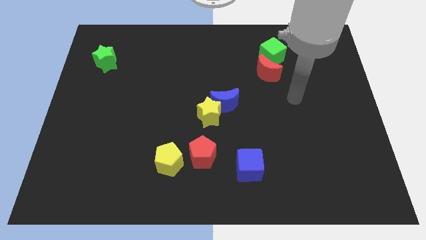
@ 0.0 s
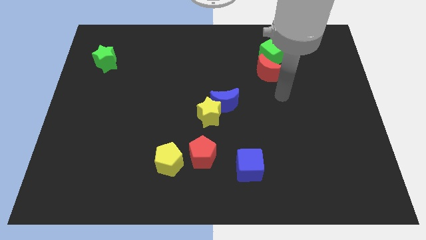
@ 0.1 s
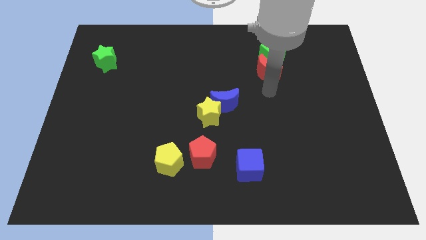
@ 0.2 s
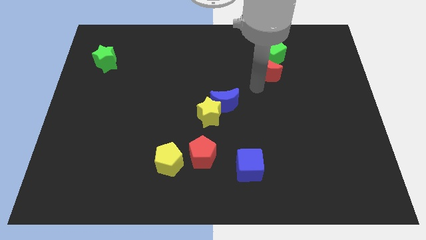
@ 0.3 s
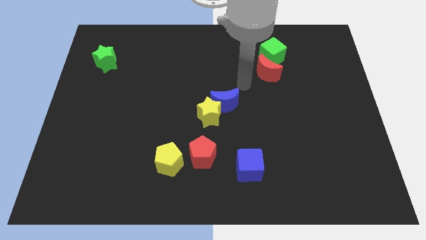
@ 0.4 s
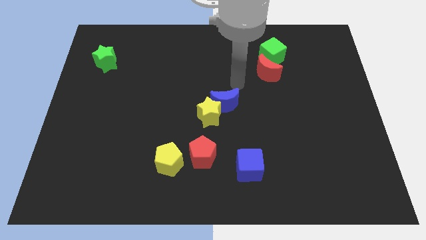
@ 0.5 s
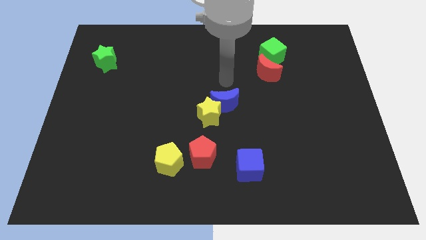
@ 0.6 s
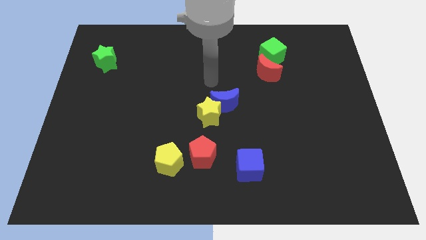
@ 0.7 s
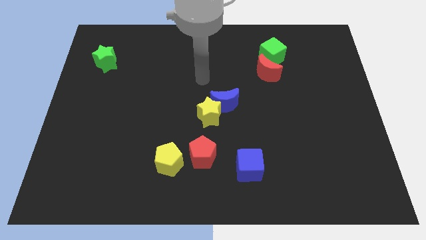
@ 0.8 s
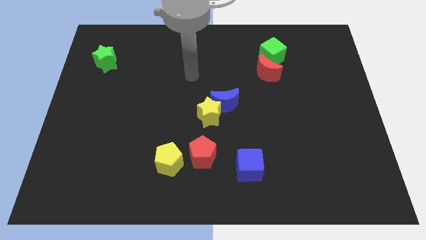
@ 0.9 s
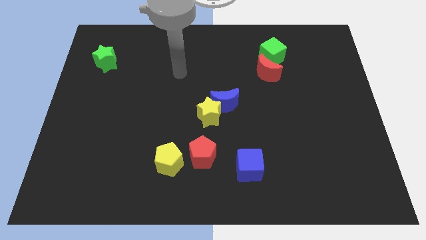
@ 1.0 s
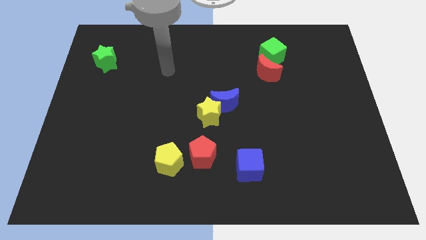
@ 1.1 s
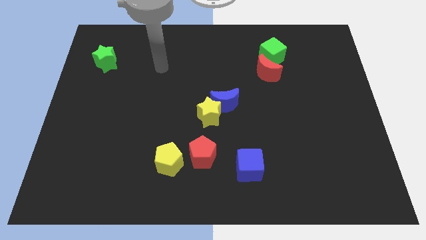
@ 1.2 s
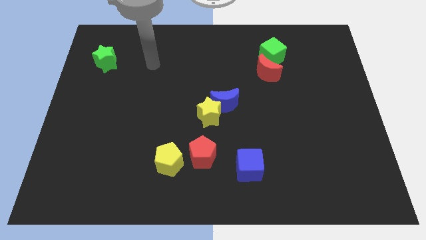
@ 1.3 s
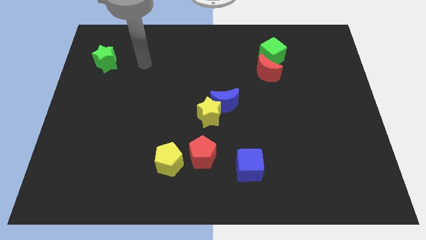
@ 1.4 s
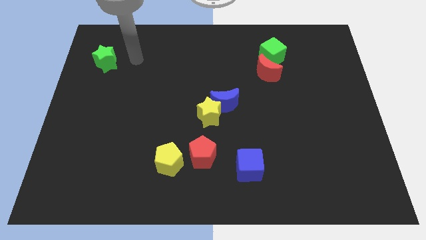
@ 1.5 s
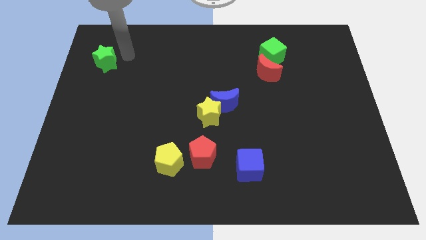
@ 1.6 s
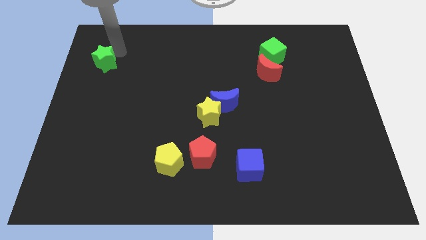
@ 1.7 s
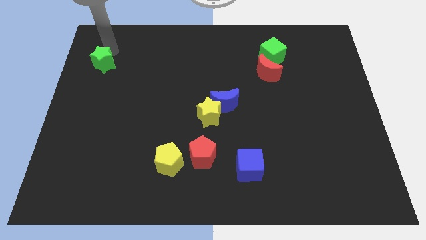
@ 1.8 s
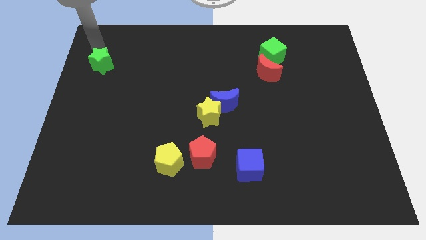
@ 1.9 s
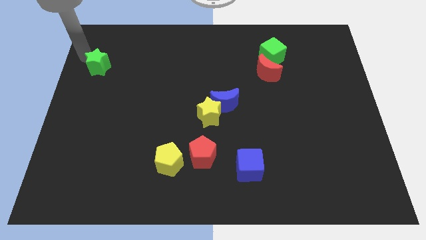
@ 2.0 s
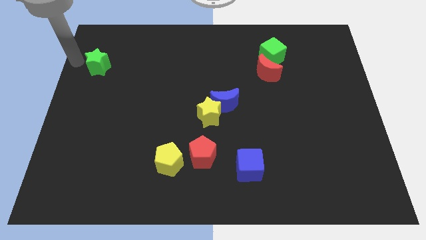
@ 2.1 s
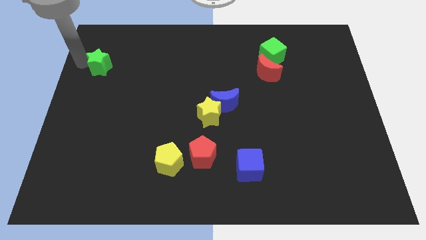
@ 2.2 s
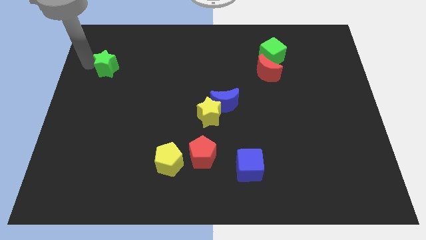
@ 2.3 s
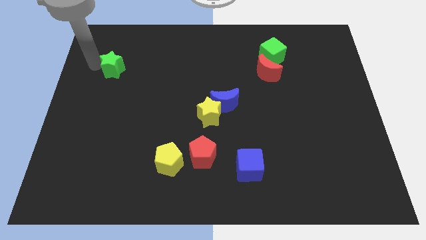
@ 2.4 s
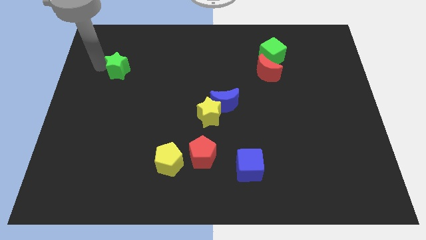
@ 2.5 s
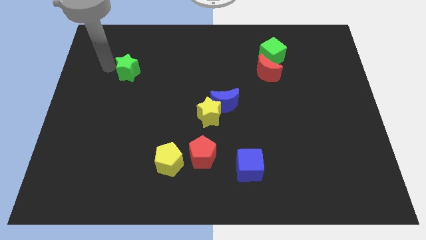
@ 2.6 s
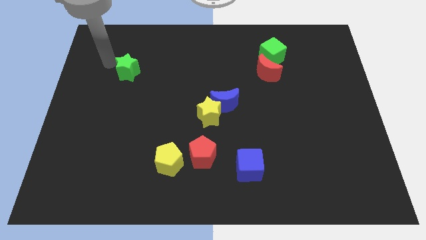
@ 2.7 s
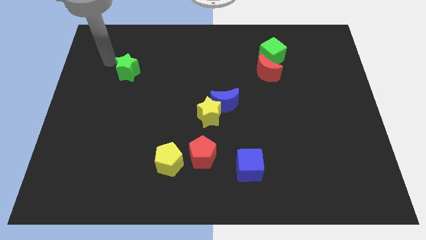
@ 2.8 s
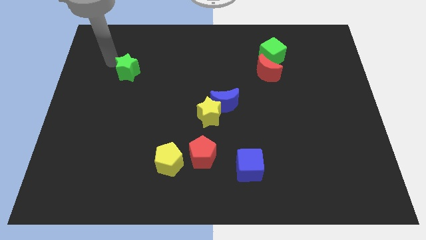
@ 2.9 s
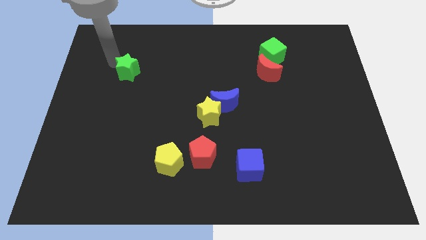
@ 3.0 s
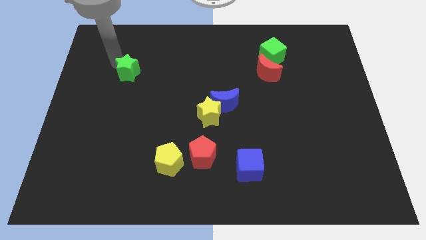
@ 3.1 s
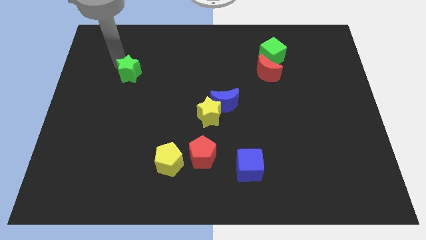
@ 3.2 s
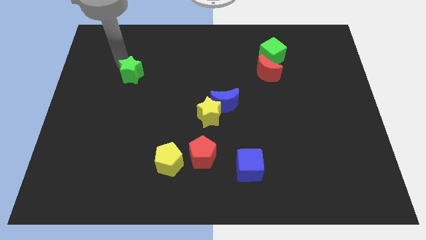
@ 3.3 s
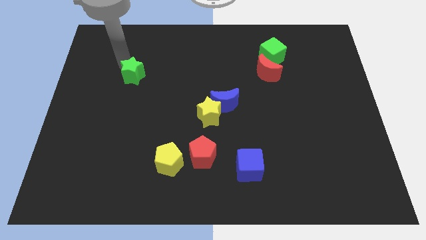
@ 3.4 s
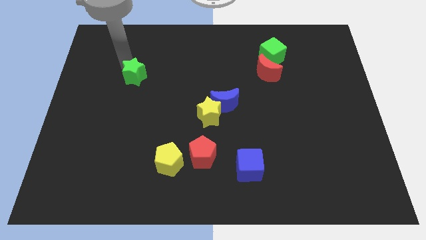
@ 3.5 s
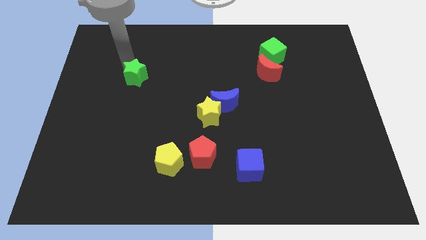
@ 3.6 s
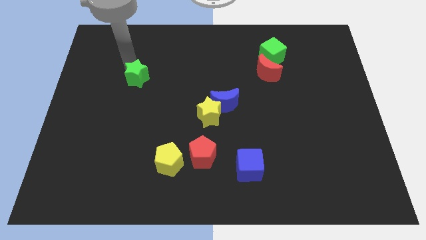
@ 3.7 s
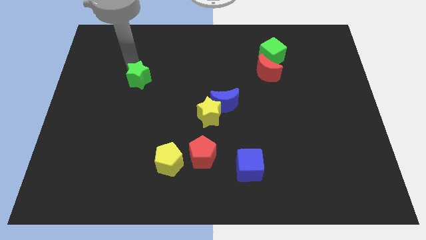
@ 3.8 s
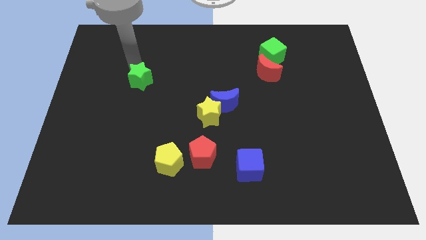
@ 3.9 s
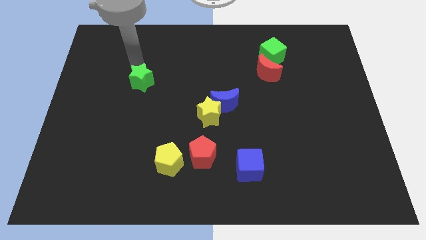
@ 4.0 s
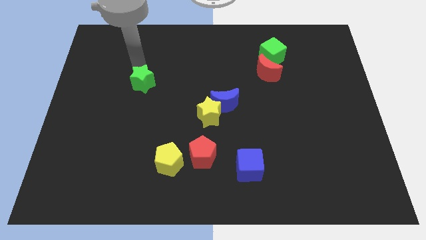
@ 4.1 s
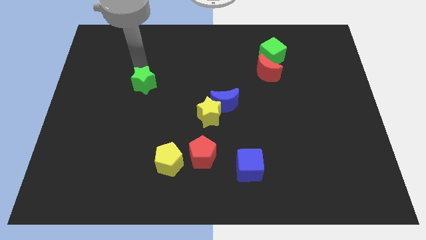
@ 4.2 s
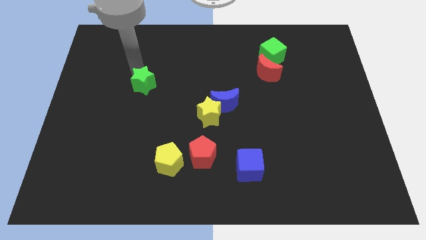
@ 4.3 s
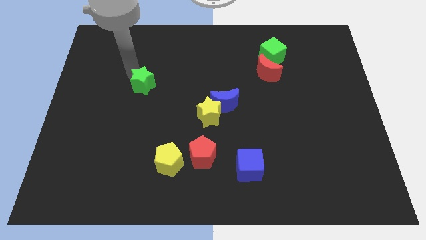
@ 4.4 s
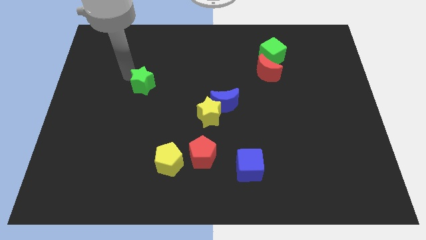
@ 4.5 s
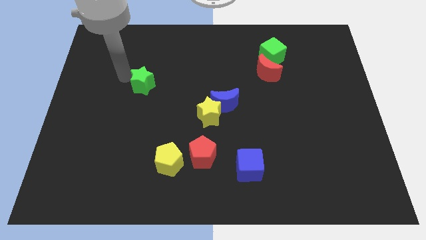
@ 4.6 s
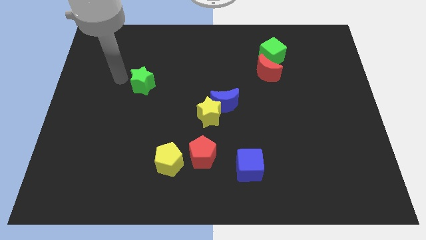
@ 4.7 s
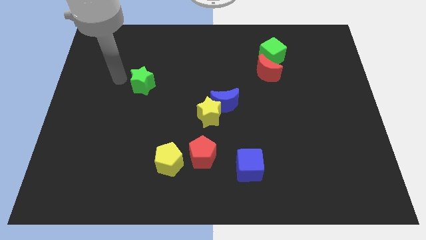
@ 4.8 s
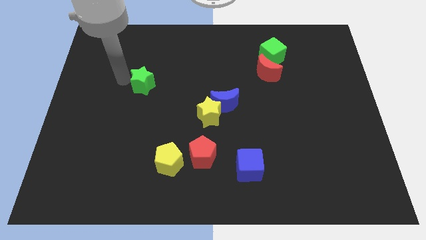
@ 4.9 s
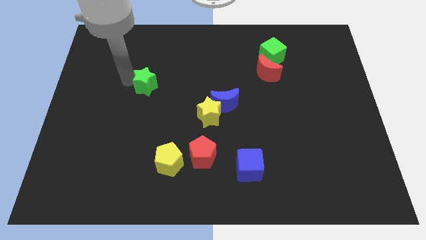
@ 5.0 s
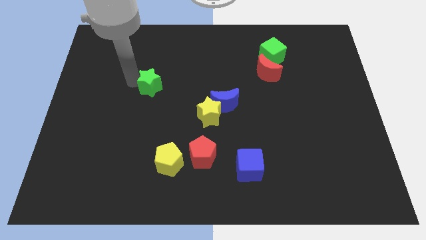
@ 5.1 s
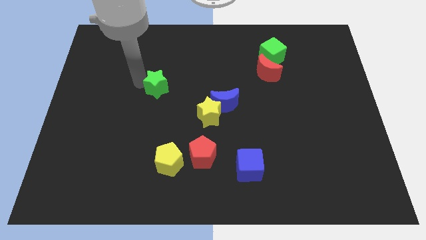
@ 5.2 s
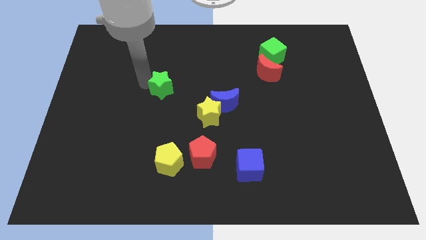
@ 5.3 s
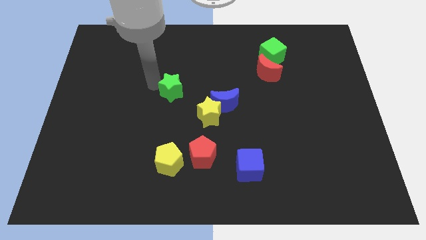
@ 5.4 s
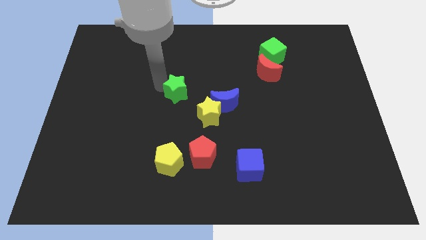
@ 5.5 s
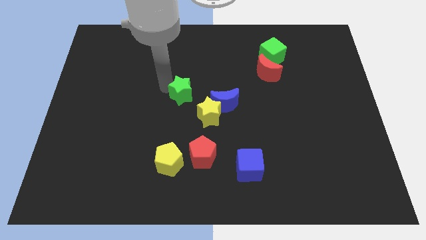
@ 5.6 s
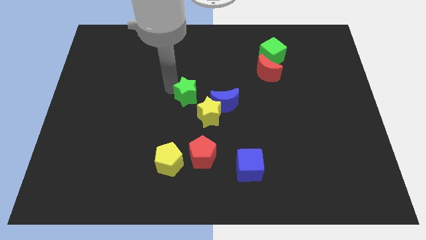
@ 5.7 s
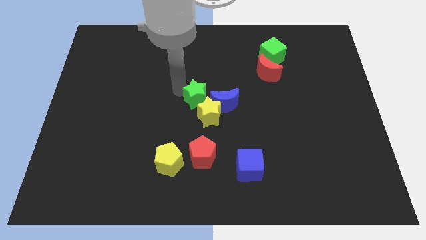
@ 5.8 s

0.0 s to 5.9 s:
put the green star towards the yellow star

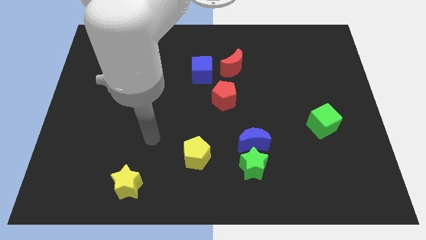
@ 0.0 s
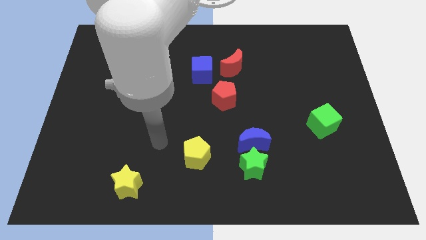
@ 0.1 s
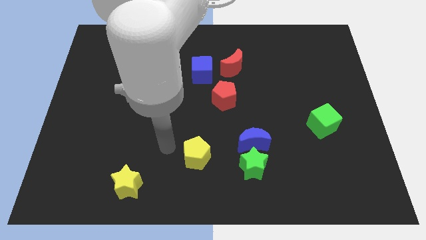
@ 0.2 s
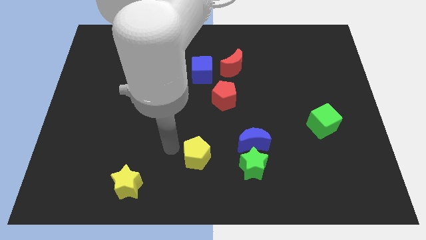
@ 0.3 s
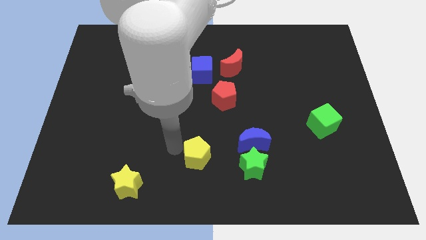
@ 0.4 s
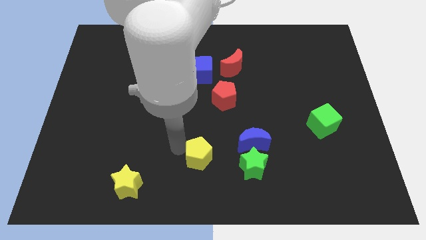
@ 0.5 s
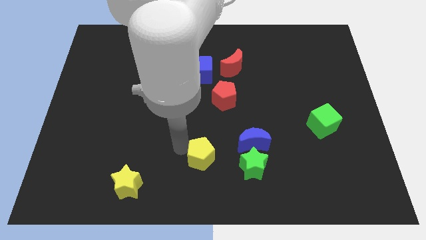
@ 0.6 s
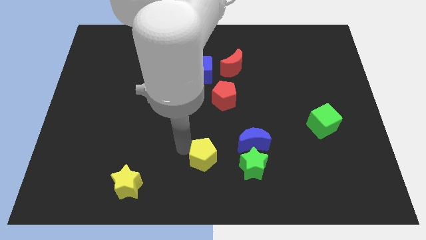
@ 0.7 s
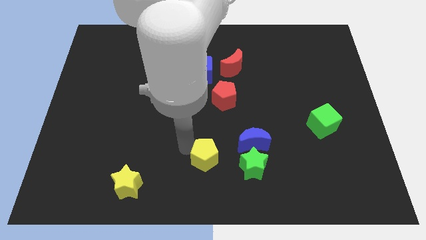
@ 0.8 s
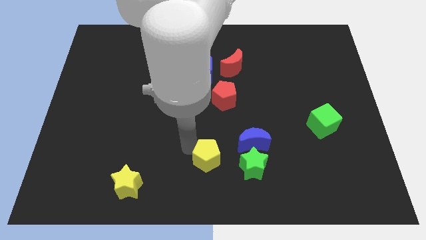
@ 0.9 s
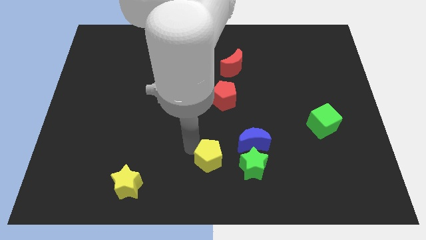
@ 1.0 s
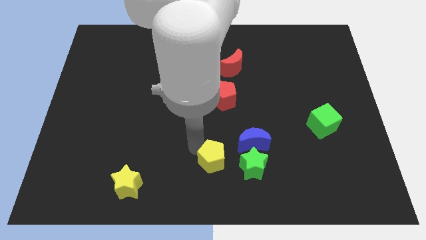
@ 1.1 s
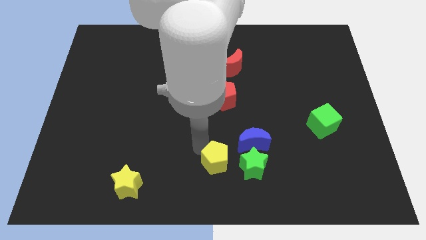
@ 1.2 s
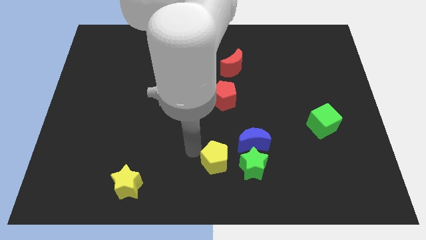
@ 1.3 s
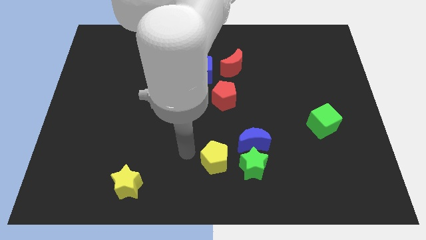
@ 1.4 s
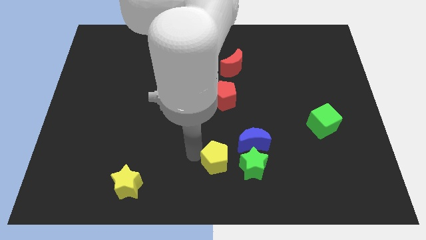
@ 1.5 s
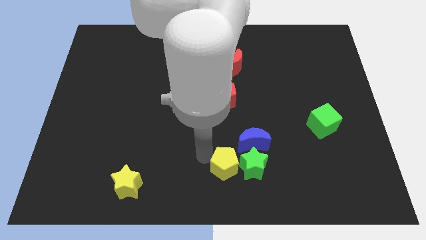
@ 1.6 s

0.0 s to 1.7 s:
push the yellow pentagon next to the green star
